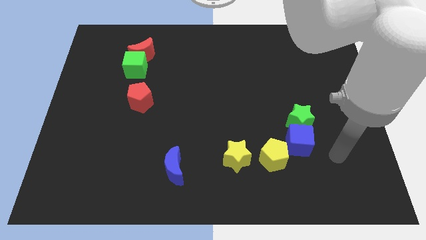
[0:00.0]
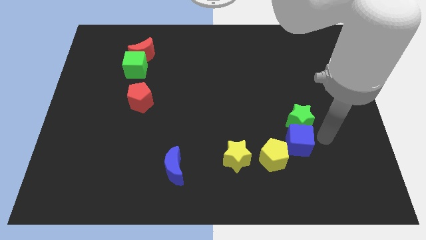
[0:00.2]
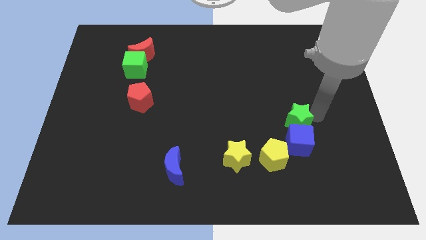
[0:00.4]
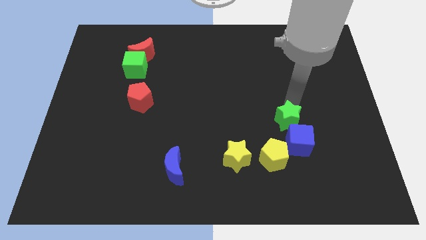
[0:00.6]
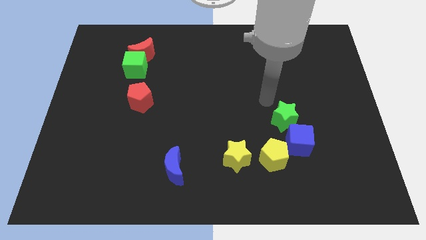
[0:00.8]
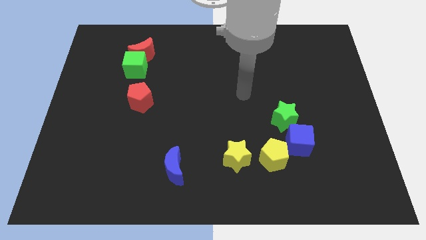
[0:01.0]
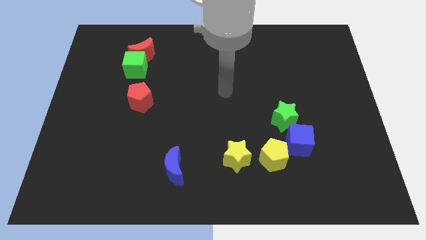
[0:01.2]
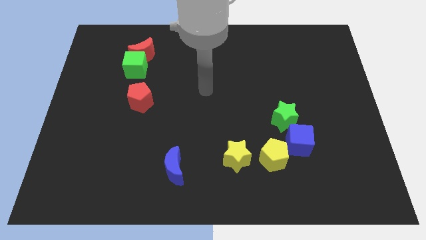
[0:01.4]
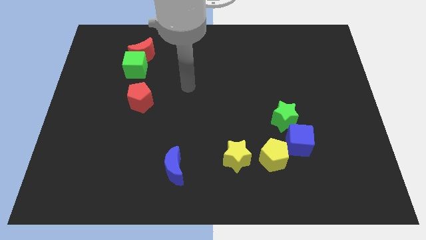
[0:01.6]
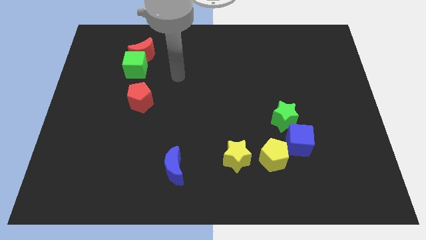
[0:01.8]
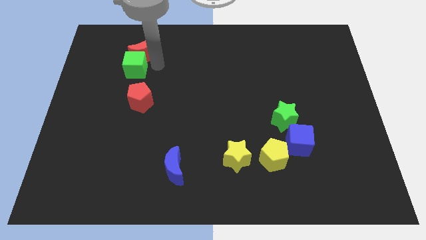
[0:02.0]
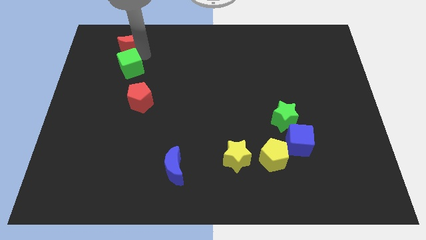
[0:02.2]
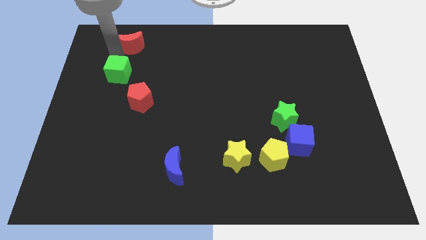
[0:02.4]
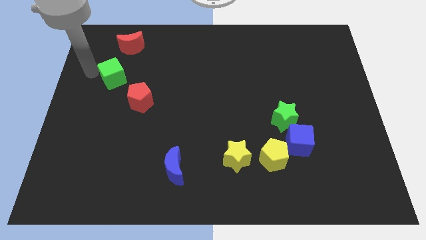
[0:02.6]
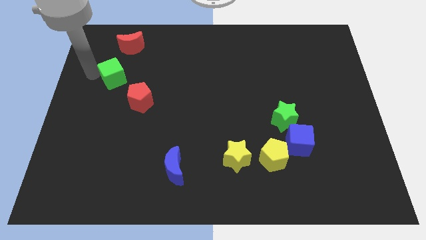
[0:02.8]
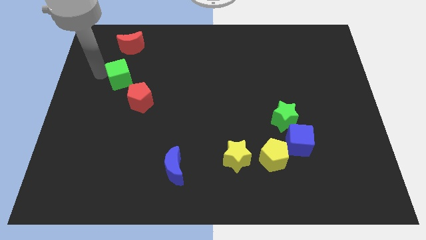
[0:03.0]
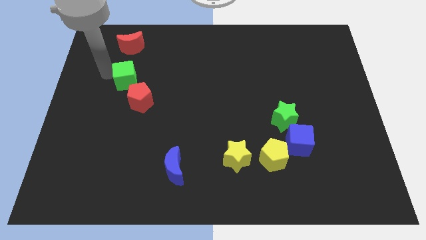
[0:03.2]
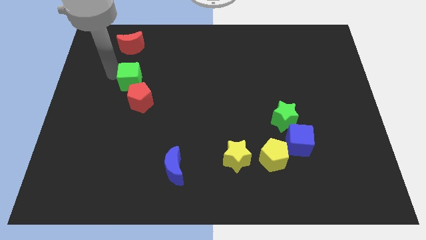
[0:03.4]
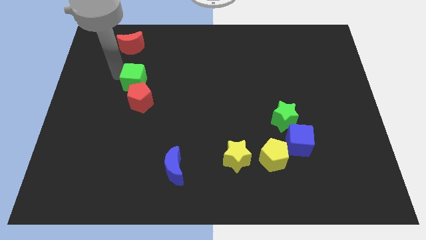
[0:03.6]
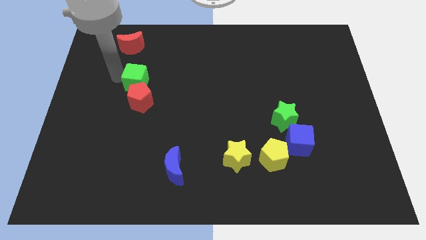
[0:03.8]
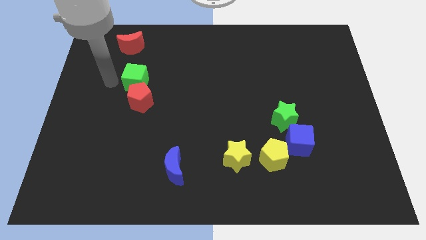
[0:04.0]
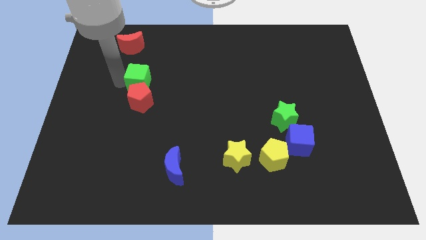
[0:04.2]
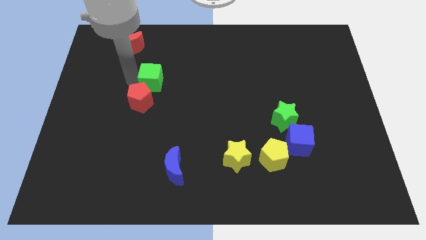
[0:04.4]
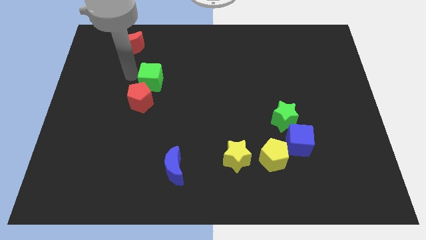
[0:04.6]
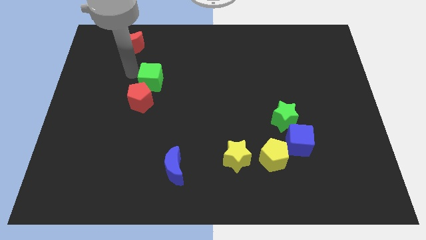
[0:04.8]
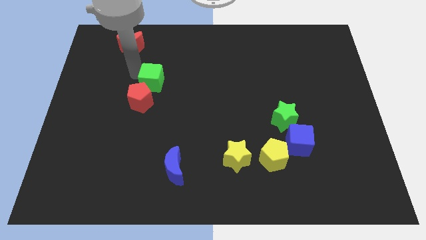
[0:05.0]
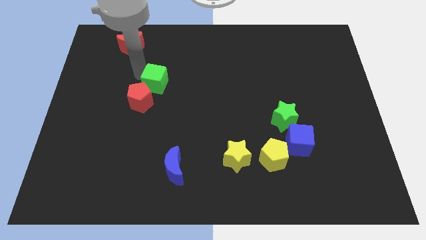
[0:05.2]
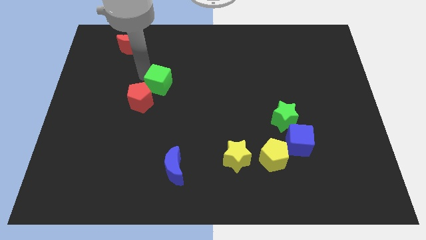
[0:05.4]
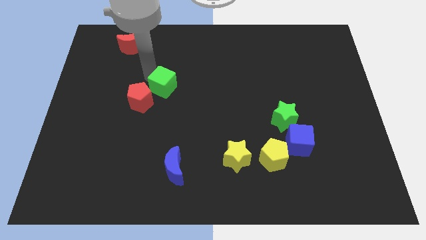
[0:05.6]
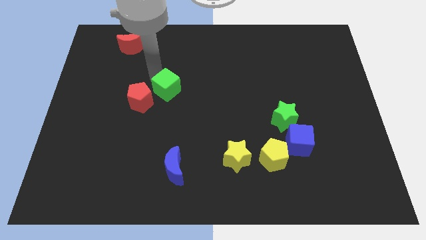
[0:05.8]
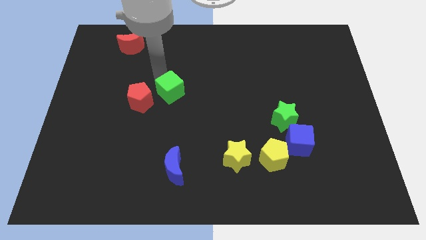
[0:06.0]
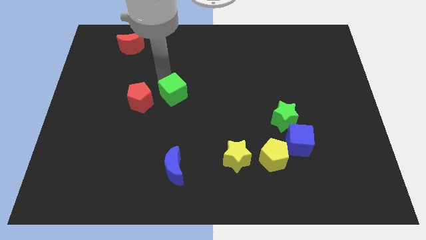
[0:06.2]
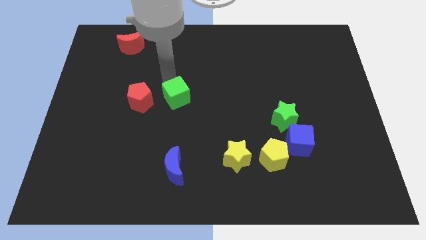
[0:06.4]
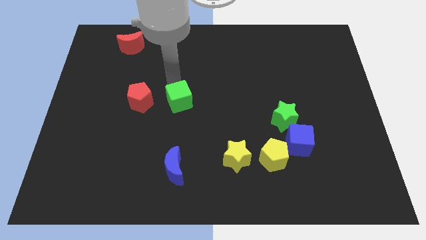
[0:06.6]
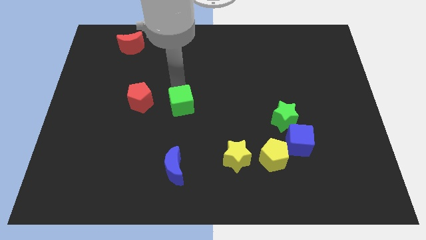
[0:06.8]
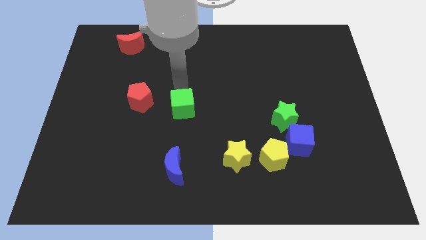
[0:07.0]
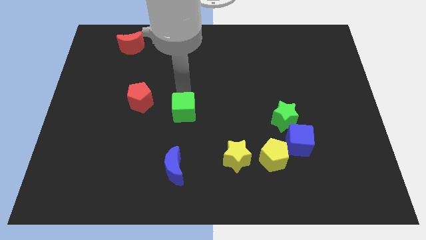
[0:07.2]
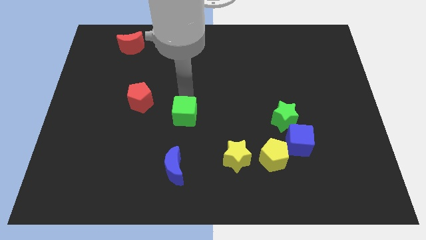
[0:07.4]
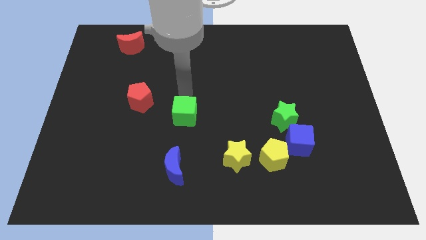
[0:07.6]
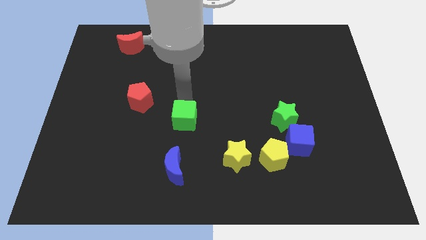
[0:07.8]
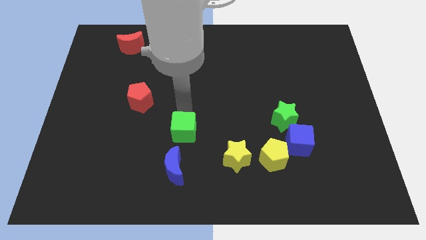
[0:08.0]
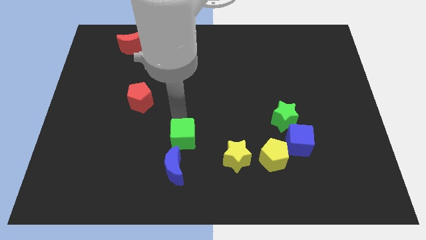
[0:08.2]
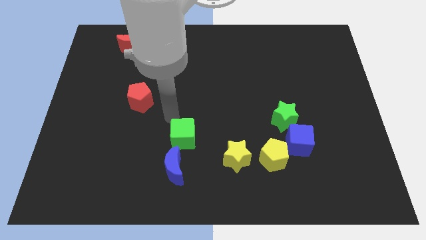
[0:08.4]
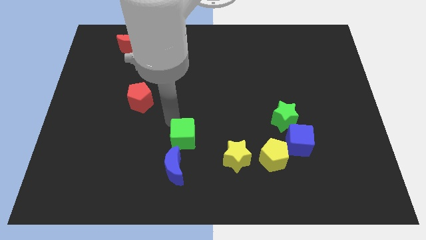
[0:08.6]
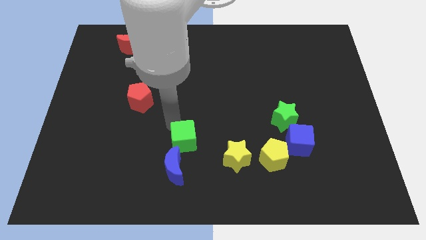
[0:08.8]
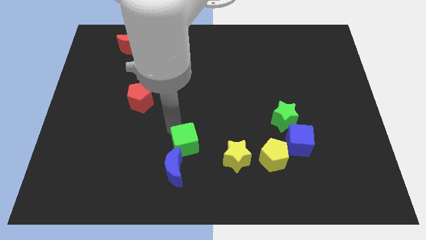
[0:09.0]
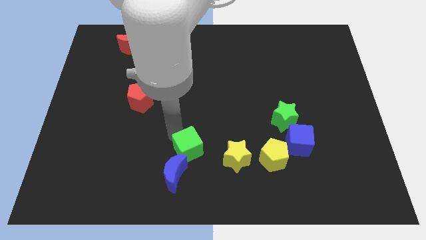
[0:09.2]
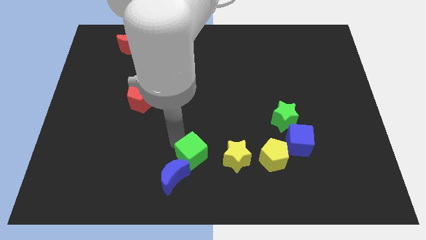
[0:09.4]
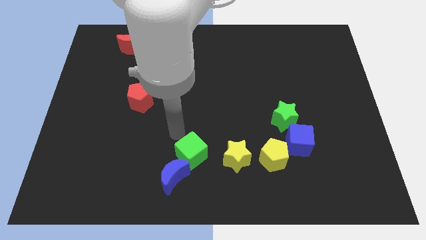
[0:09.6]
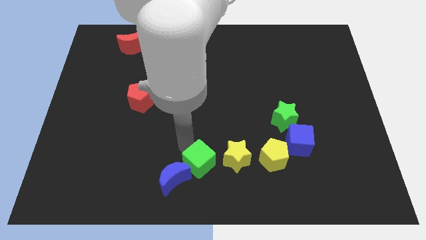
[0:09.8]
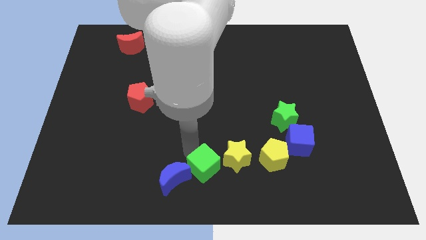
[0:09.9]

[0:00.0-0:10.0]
move the green cube diagonally down and to the left of the yellow star

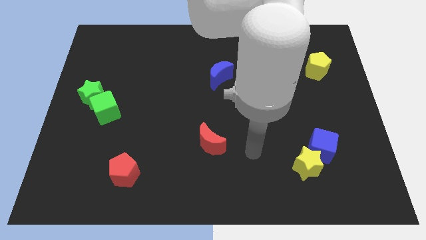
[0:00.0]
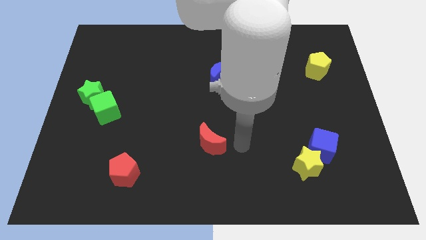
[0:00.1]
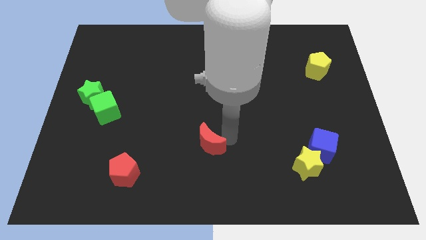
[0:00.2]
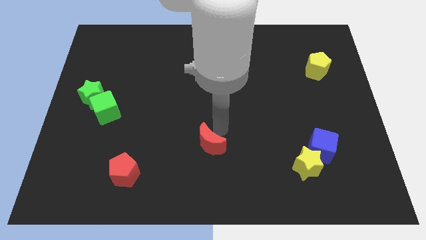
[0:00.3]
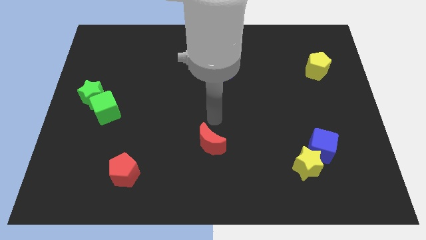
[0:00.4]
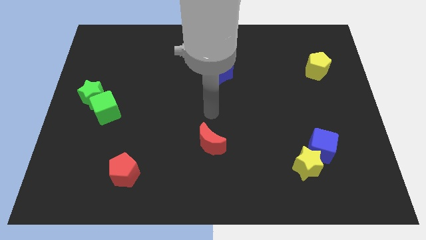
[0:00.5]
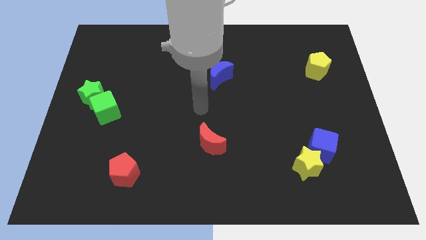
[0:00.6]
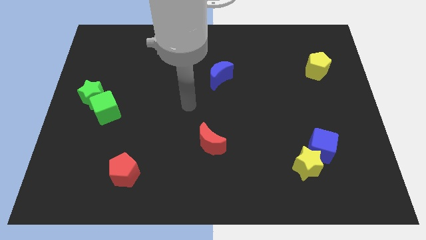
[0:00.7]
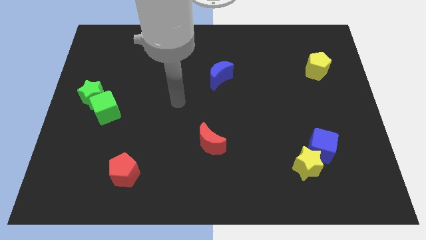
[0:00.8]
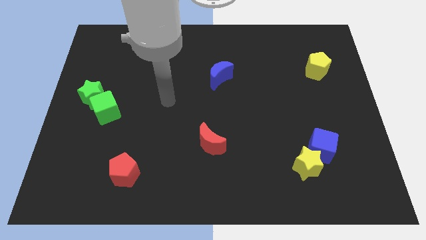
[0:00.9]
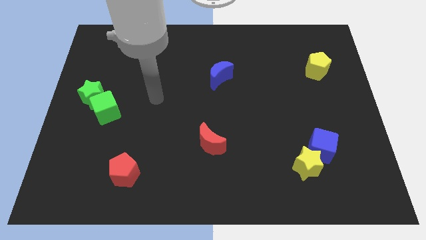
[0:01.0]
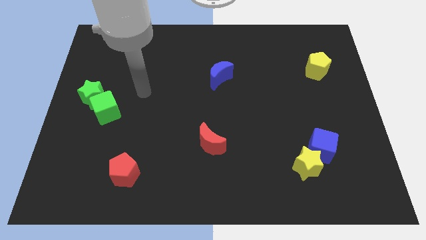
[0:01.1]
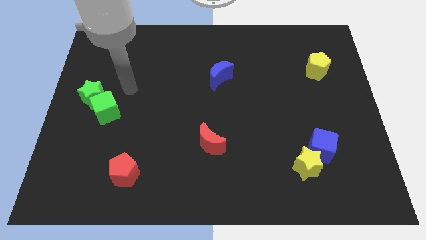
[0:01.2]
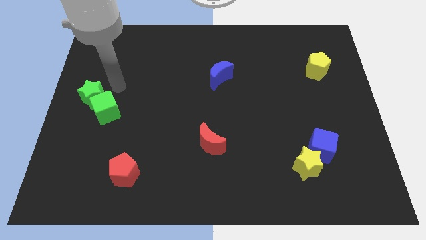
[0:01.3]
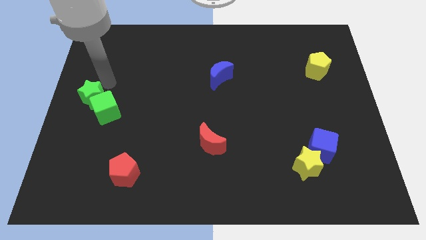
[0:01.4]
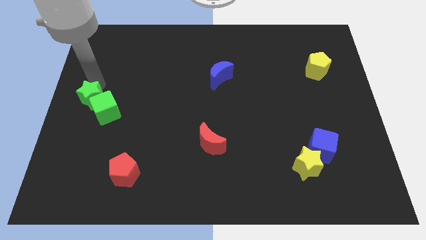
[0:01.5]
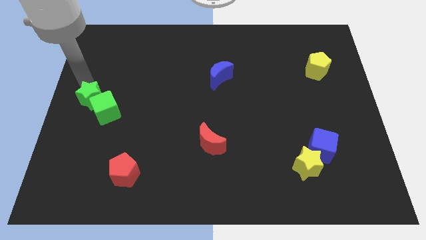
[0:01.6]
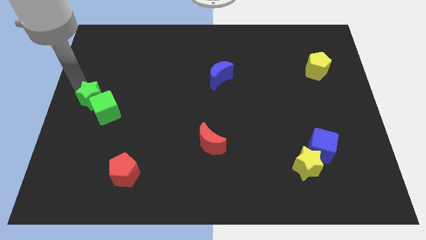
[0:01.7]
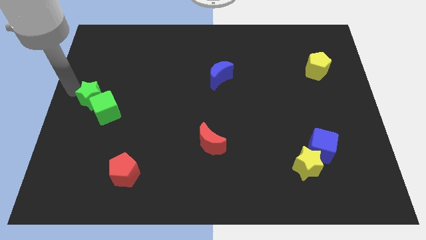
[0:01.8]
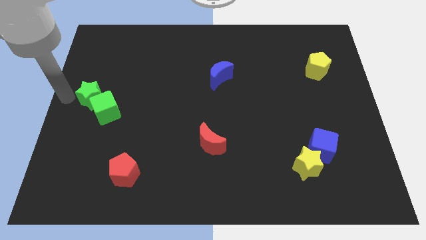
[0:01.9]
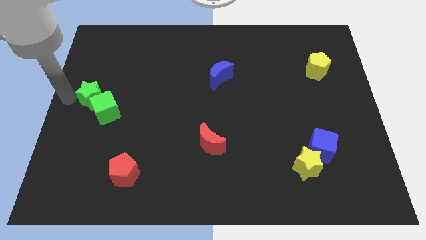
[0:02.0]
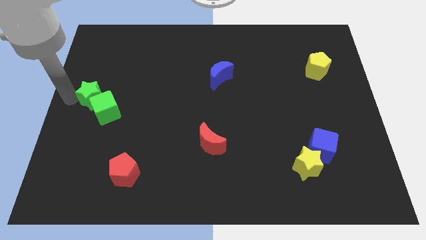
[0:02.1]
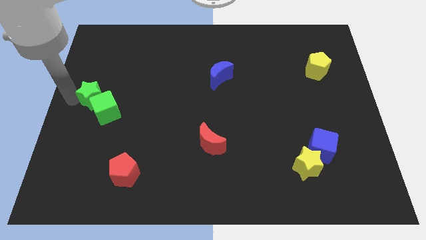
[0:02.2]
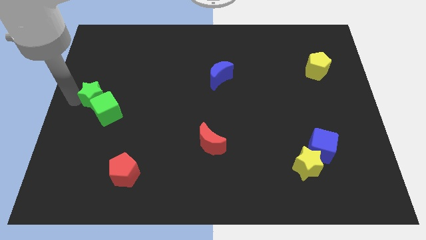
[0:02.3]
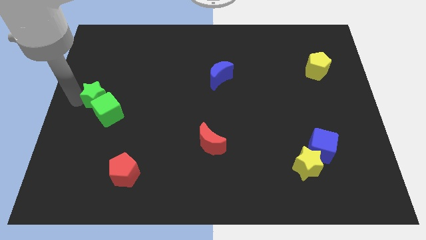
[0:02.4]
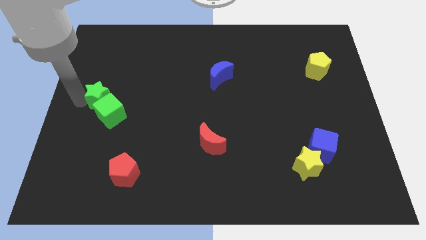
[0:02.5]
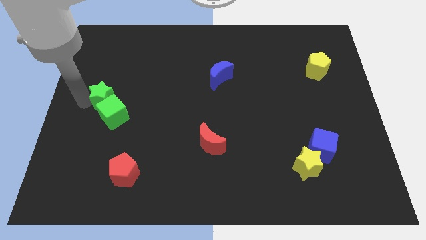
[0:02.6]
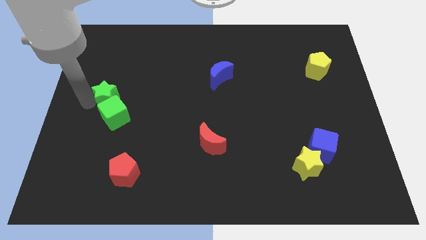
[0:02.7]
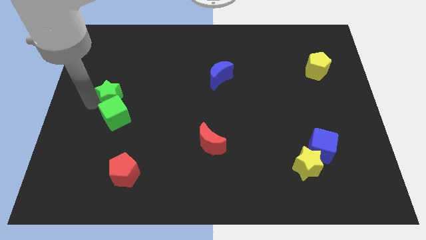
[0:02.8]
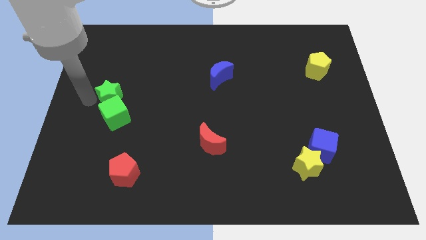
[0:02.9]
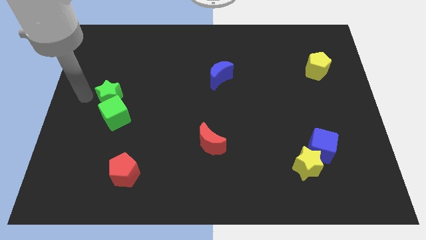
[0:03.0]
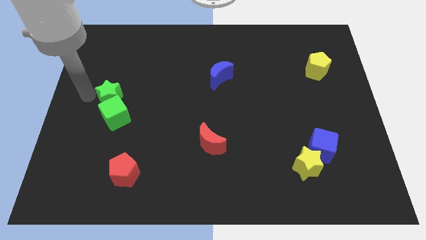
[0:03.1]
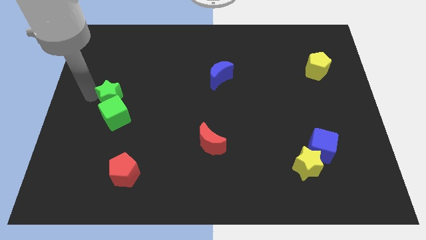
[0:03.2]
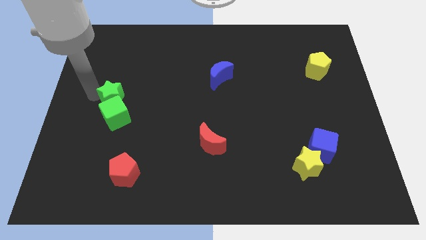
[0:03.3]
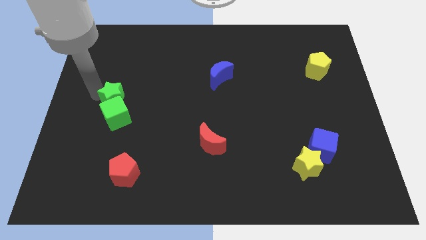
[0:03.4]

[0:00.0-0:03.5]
slide the green star to the top right of the green cube
